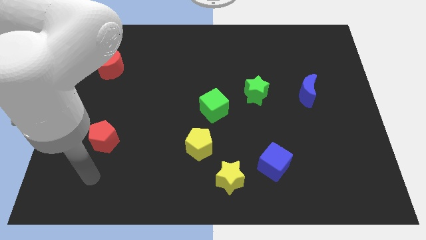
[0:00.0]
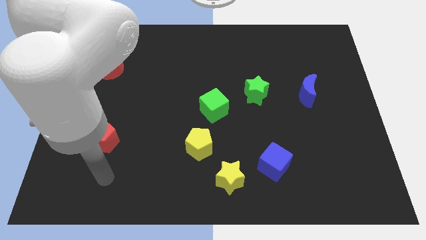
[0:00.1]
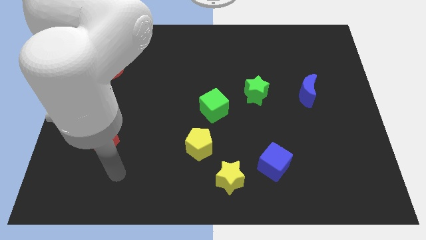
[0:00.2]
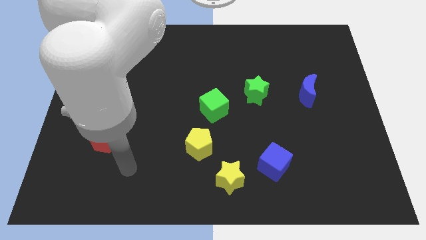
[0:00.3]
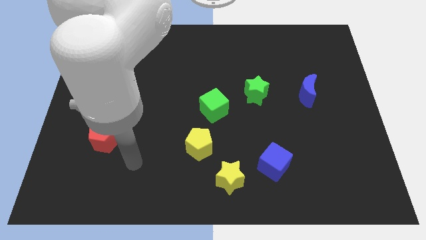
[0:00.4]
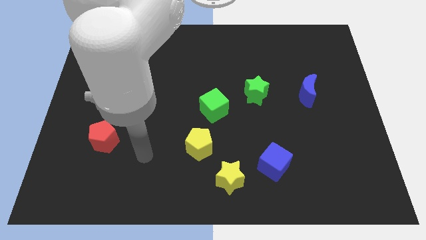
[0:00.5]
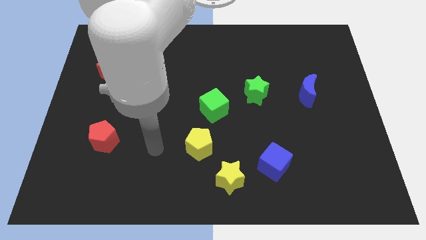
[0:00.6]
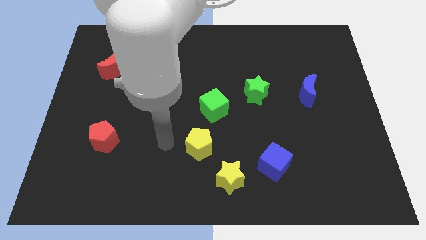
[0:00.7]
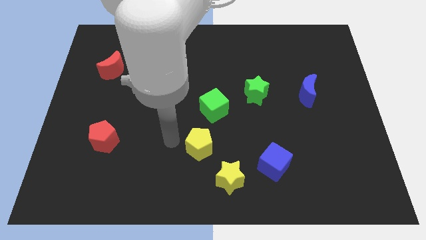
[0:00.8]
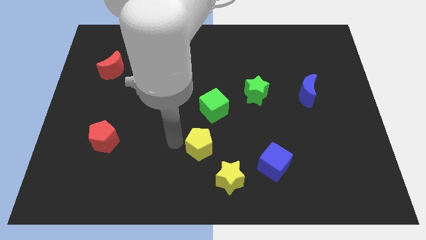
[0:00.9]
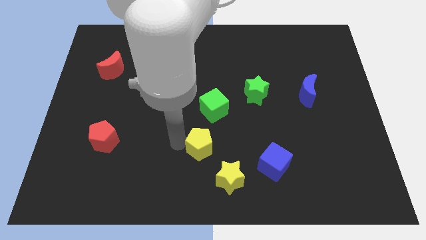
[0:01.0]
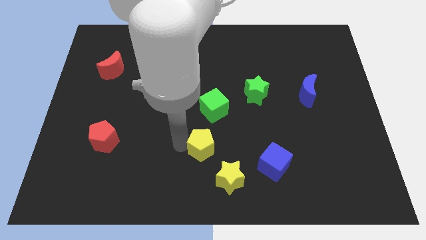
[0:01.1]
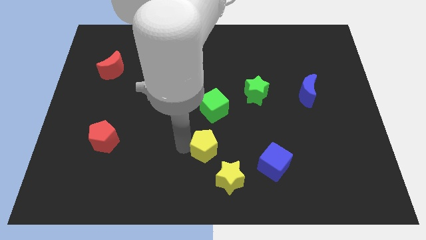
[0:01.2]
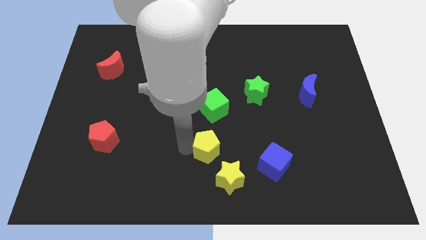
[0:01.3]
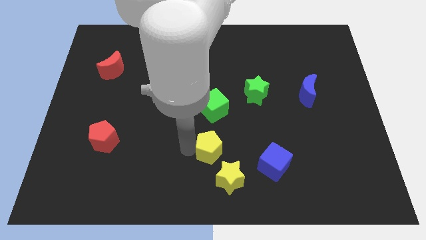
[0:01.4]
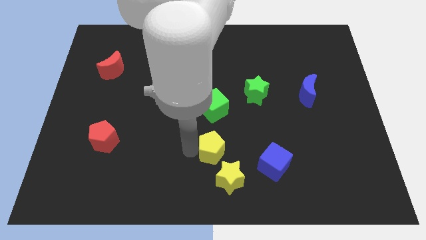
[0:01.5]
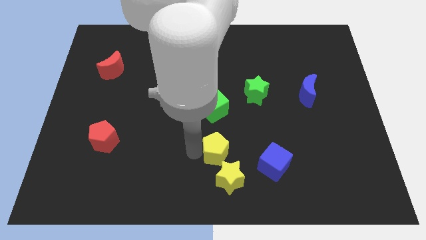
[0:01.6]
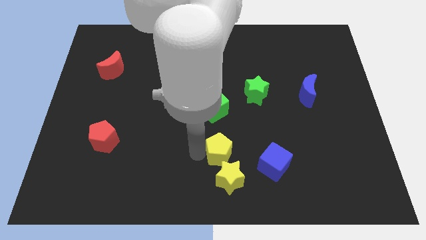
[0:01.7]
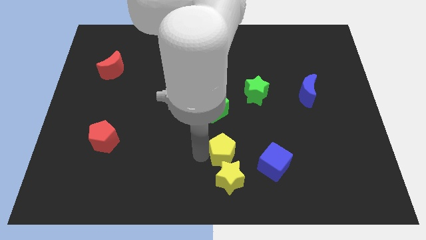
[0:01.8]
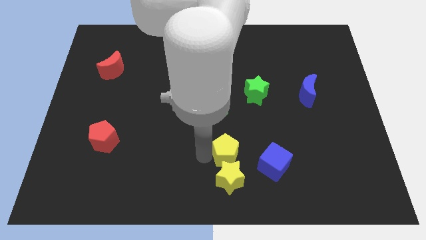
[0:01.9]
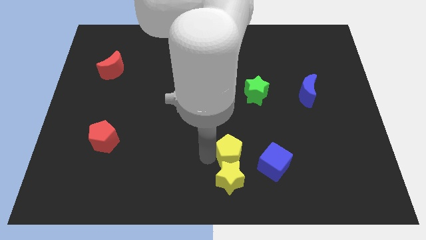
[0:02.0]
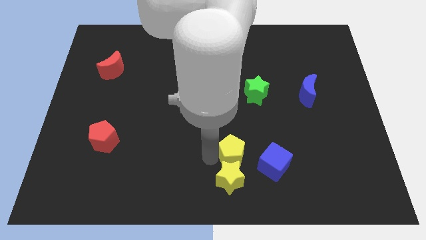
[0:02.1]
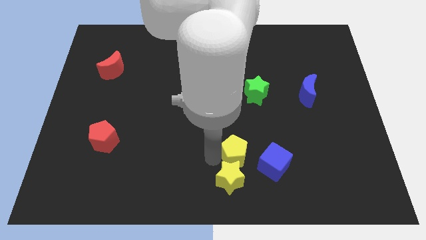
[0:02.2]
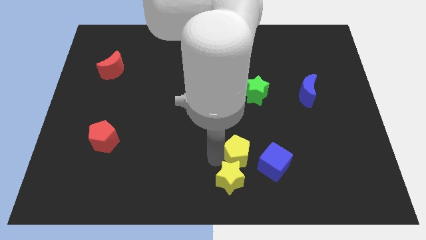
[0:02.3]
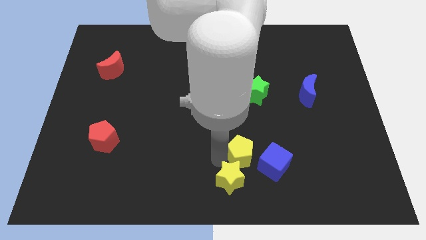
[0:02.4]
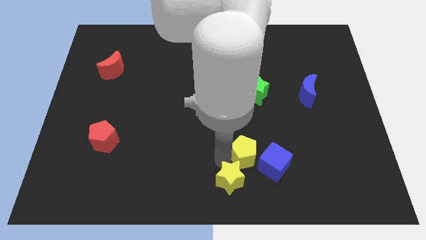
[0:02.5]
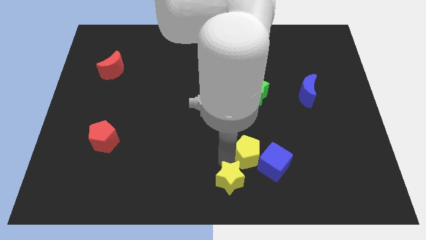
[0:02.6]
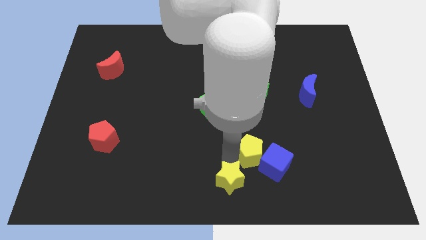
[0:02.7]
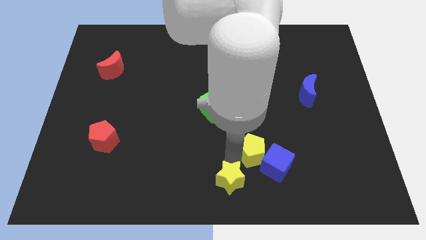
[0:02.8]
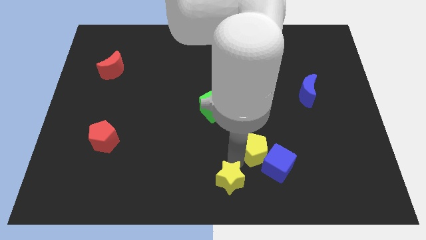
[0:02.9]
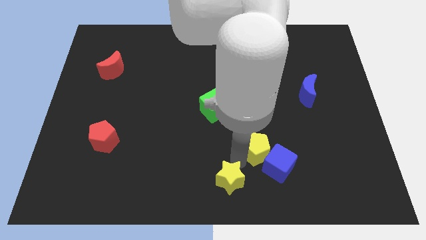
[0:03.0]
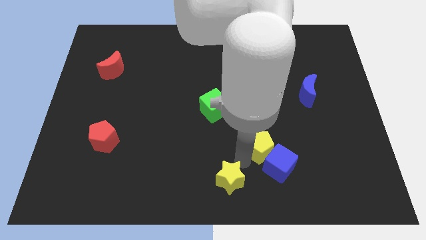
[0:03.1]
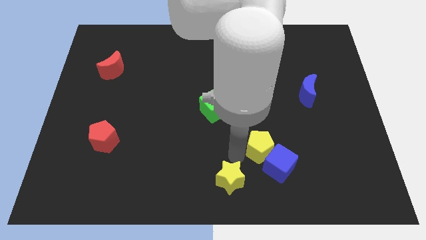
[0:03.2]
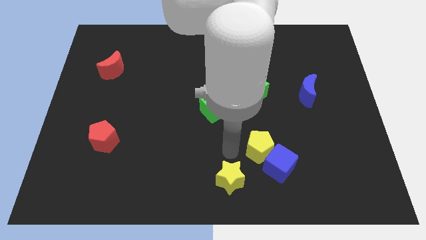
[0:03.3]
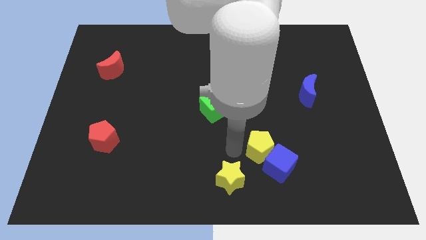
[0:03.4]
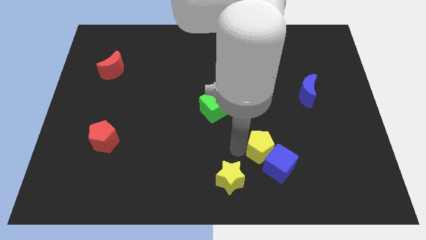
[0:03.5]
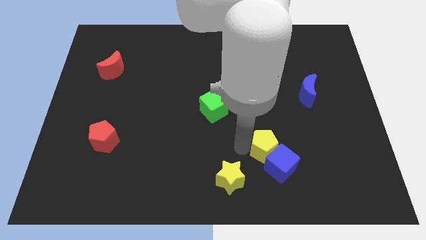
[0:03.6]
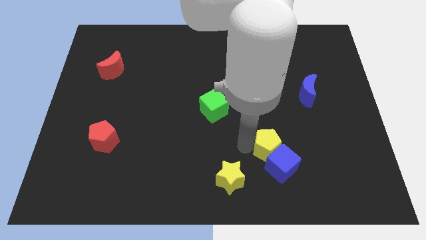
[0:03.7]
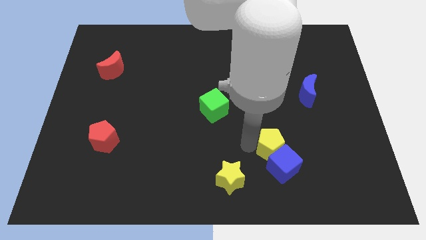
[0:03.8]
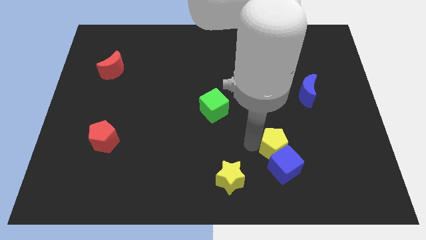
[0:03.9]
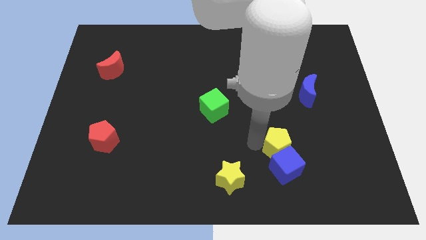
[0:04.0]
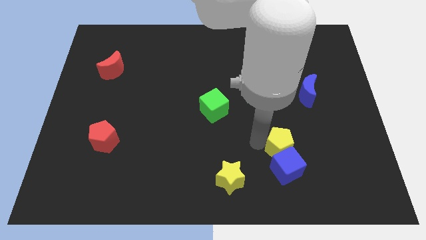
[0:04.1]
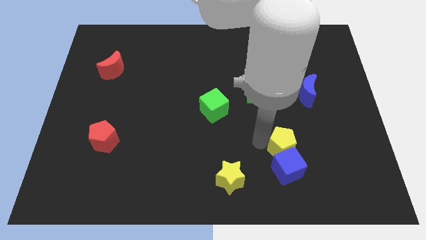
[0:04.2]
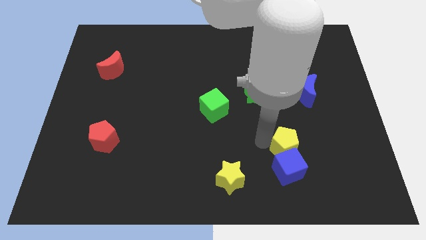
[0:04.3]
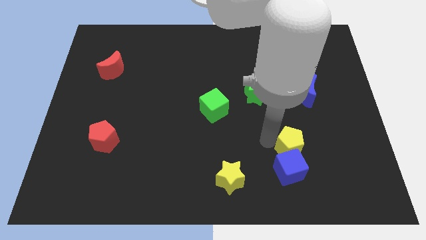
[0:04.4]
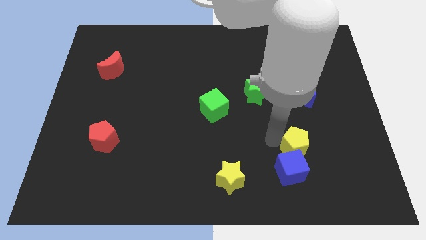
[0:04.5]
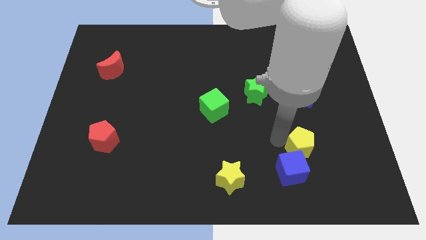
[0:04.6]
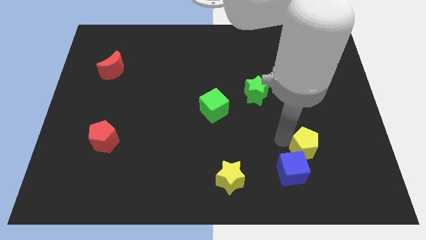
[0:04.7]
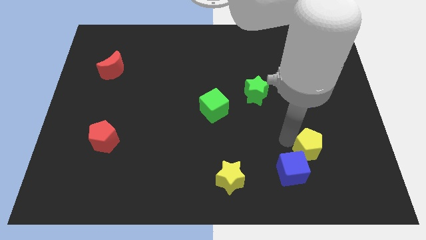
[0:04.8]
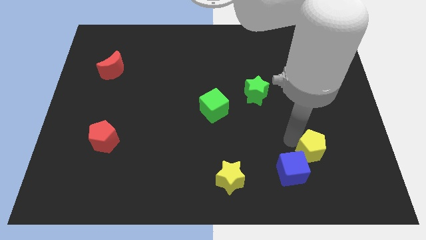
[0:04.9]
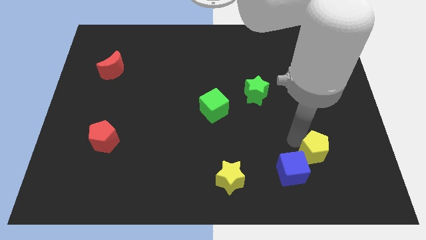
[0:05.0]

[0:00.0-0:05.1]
move the yellow pentagon to the right of the blue cube

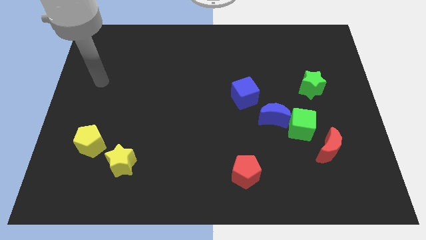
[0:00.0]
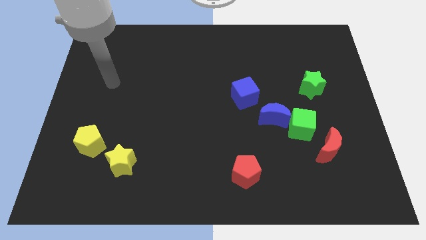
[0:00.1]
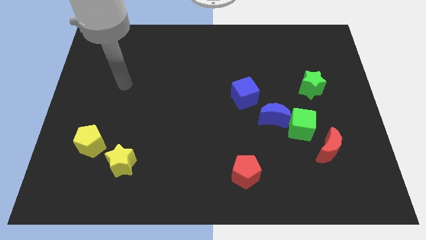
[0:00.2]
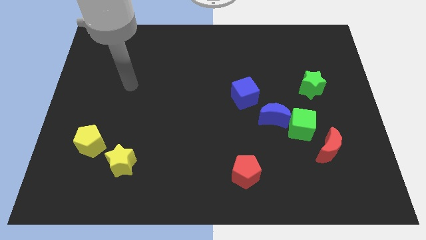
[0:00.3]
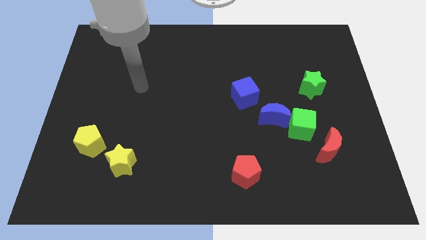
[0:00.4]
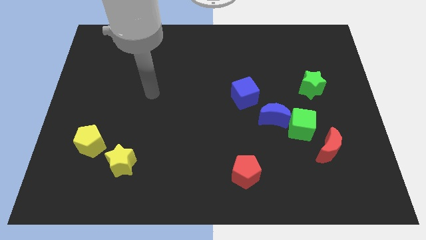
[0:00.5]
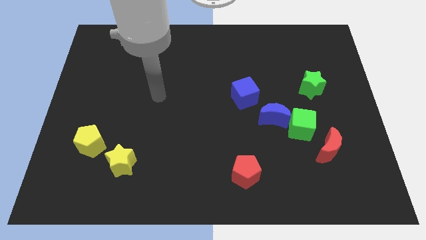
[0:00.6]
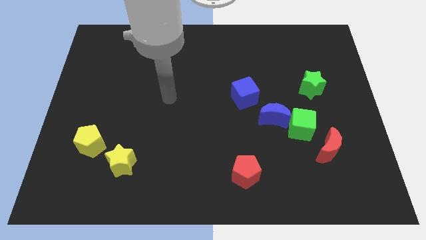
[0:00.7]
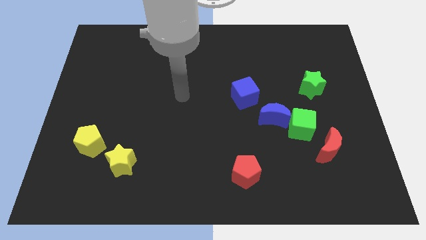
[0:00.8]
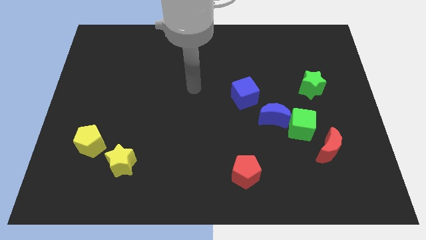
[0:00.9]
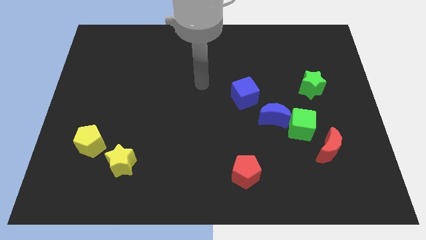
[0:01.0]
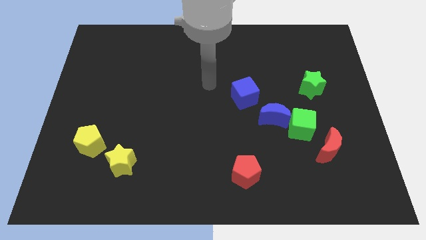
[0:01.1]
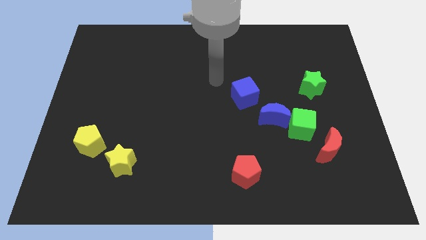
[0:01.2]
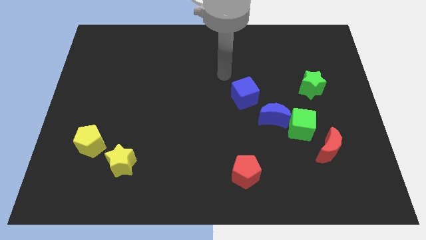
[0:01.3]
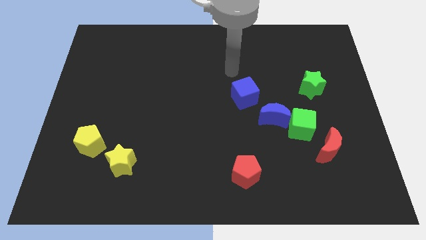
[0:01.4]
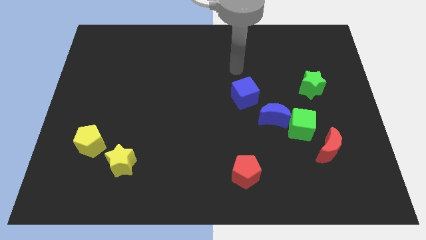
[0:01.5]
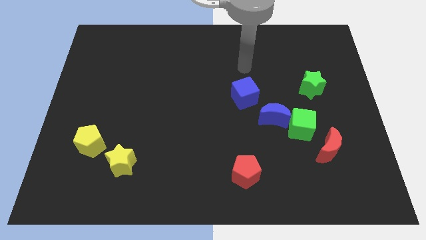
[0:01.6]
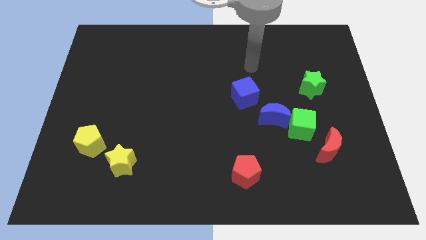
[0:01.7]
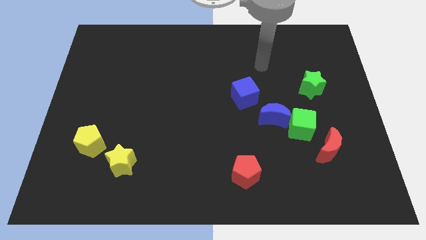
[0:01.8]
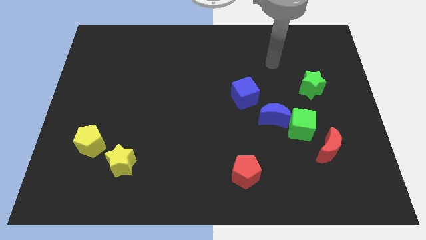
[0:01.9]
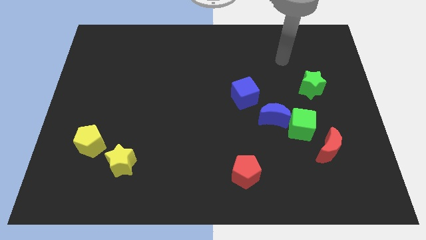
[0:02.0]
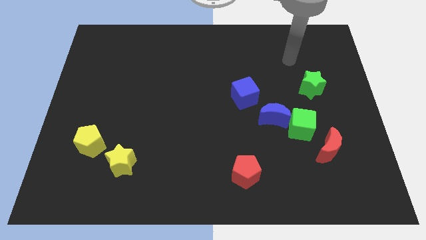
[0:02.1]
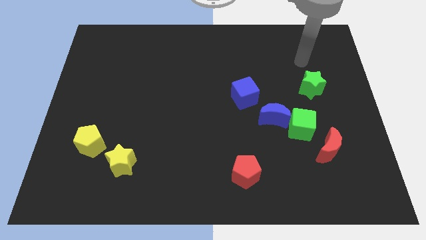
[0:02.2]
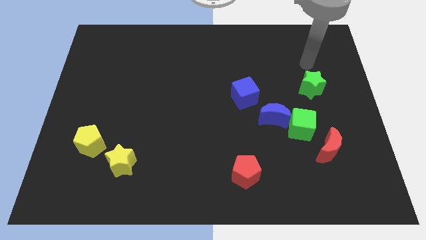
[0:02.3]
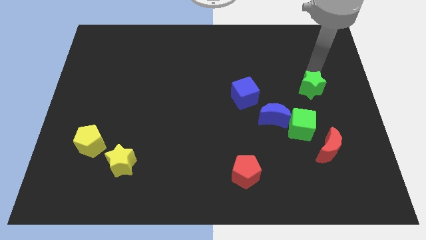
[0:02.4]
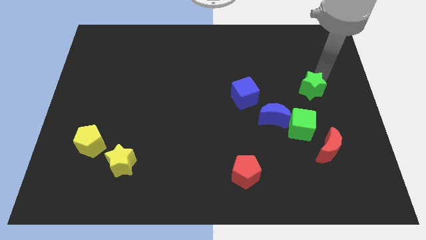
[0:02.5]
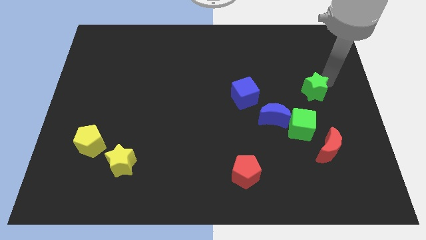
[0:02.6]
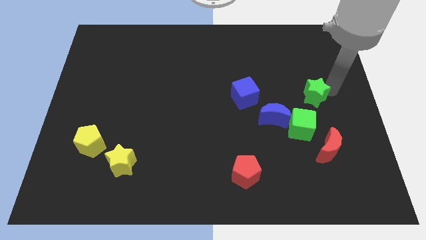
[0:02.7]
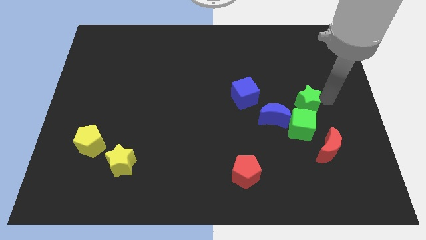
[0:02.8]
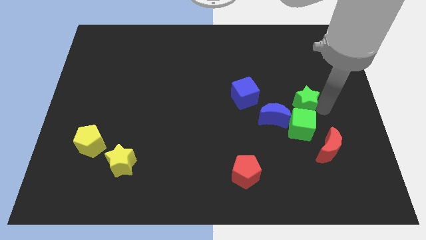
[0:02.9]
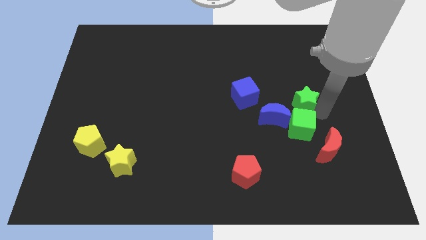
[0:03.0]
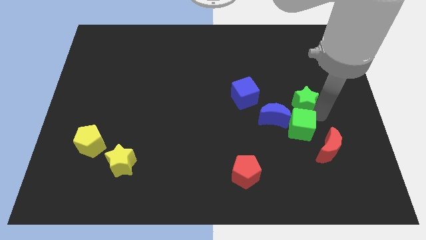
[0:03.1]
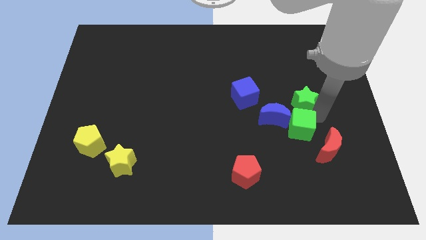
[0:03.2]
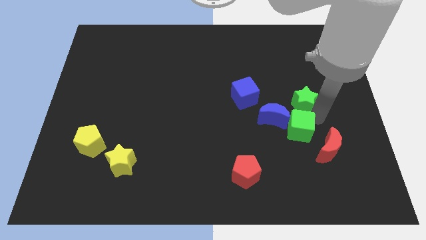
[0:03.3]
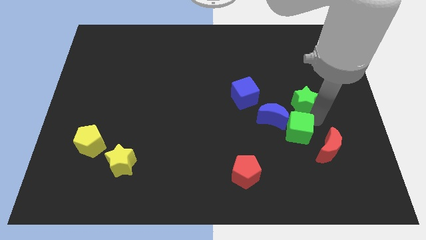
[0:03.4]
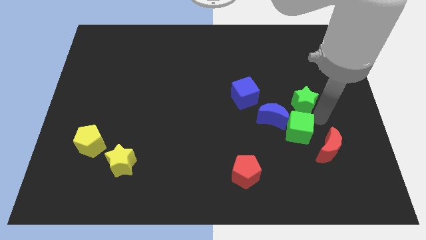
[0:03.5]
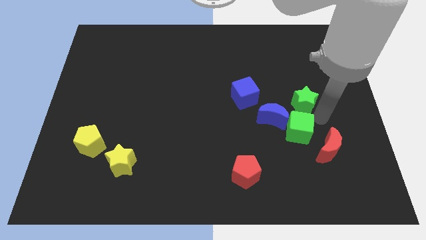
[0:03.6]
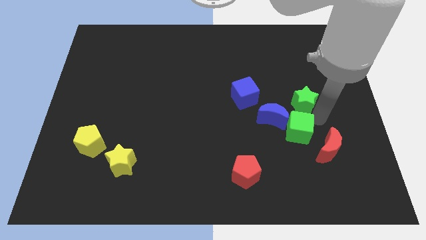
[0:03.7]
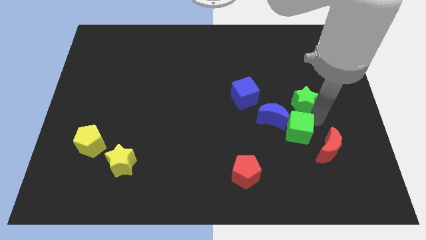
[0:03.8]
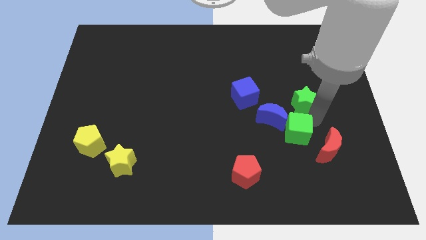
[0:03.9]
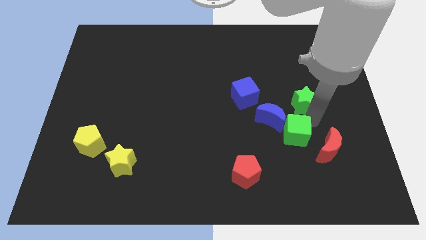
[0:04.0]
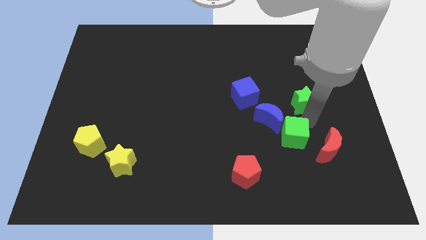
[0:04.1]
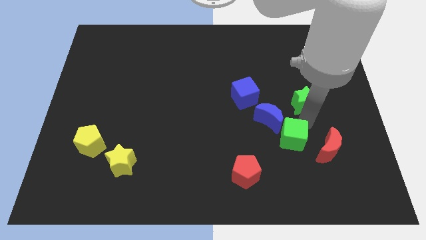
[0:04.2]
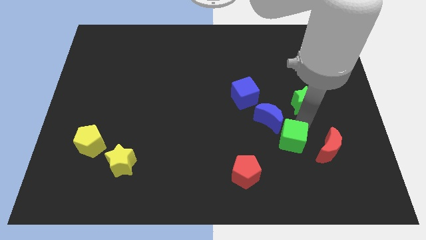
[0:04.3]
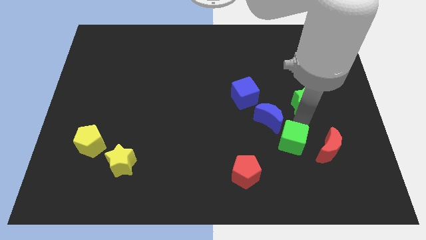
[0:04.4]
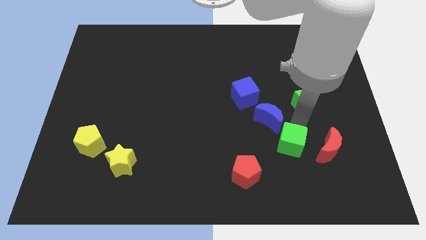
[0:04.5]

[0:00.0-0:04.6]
push the green cube to the top right side of the red pentagon
